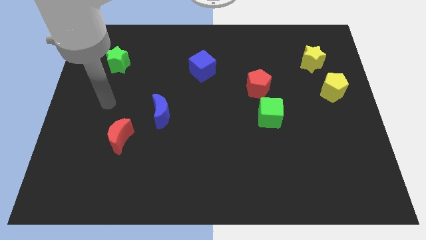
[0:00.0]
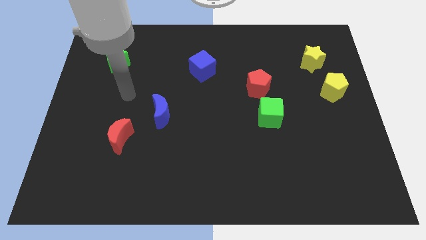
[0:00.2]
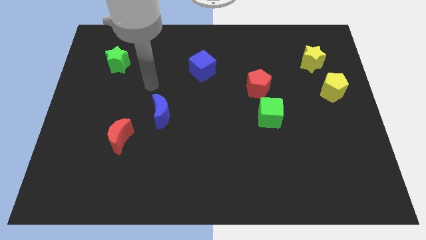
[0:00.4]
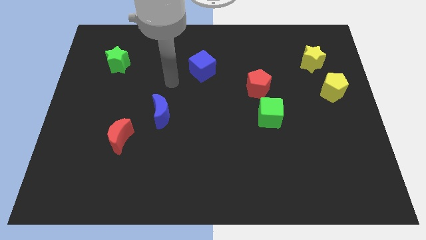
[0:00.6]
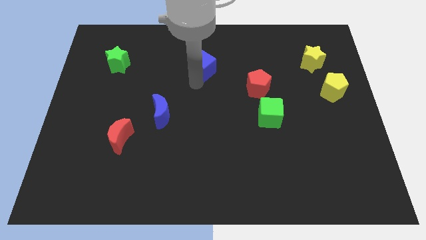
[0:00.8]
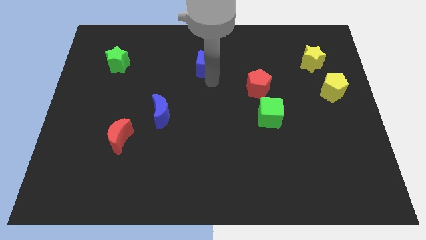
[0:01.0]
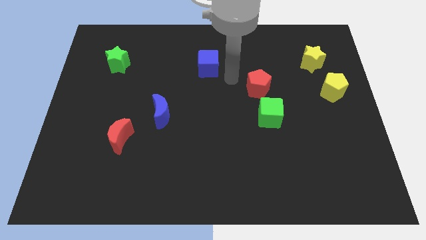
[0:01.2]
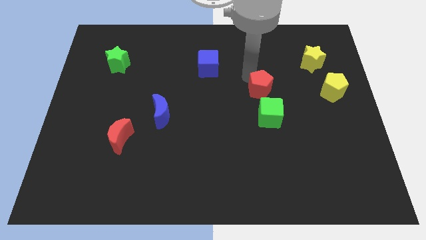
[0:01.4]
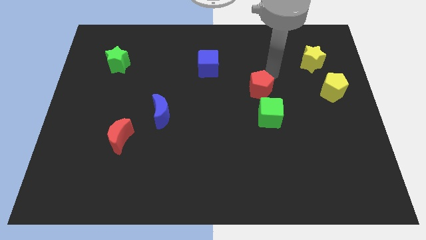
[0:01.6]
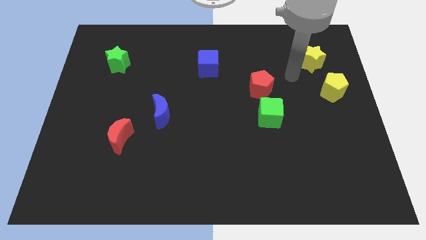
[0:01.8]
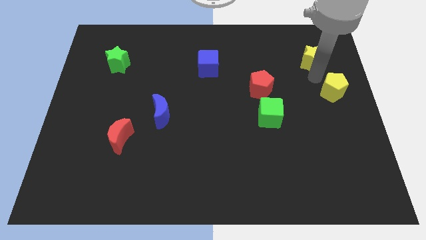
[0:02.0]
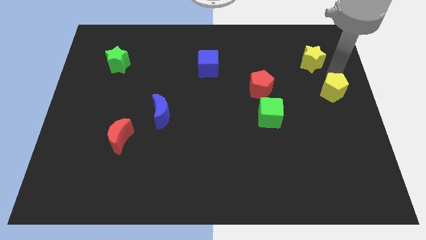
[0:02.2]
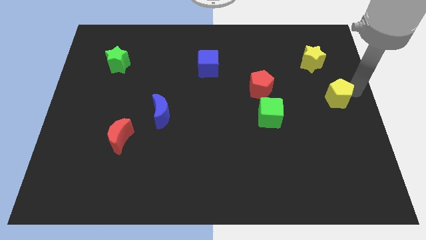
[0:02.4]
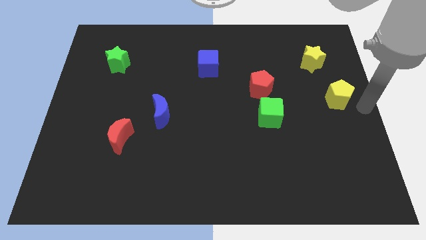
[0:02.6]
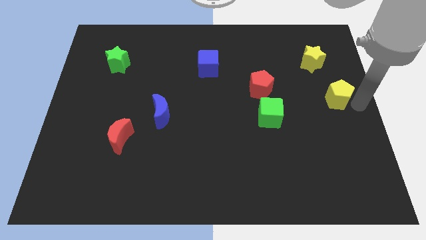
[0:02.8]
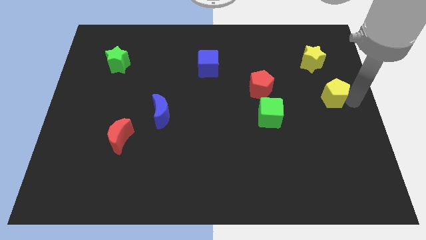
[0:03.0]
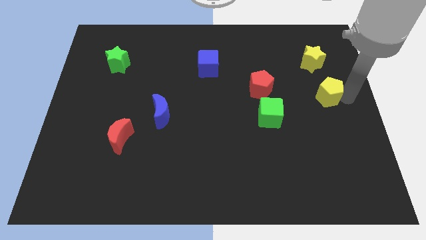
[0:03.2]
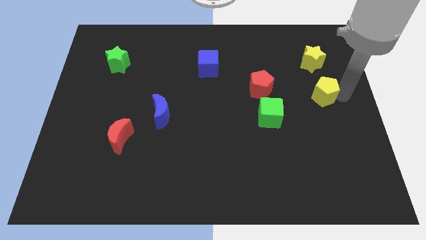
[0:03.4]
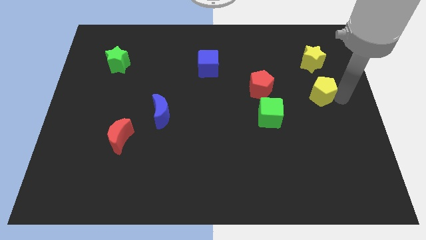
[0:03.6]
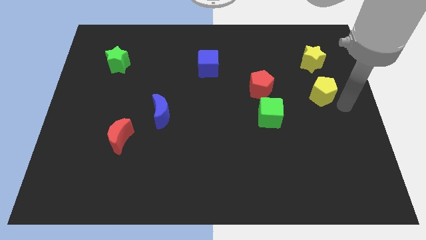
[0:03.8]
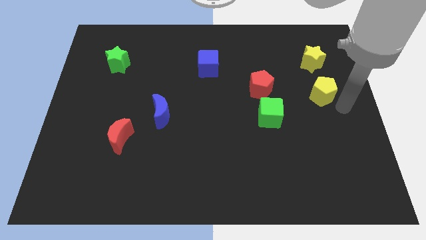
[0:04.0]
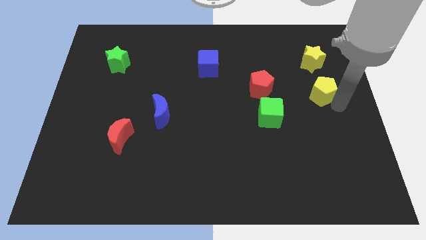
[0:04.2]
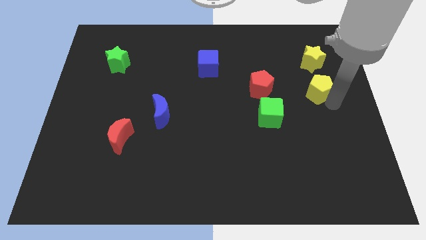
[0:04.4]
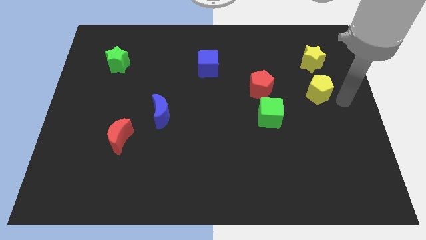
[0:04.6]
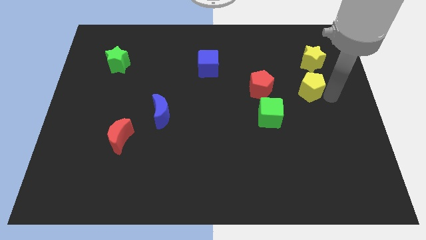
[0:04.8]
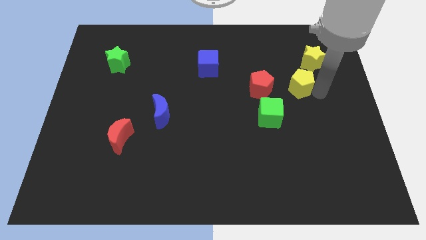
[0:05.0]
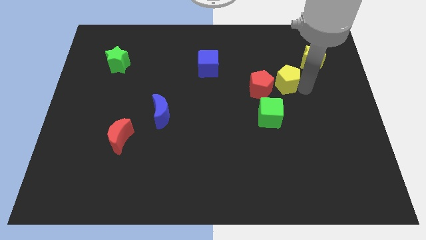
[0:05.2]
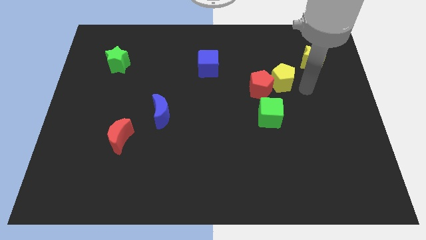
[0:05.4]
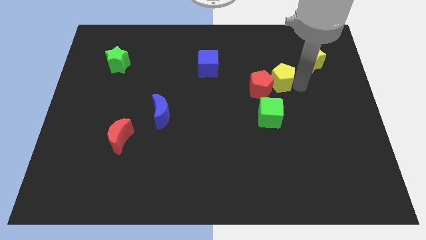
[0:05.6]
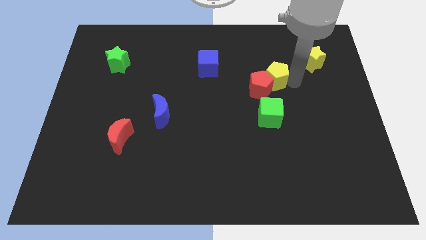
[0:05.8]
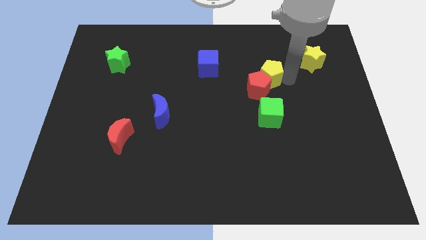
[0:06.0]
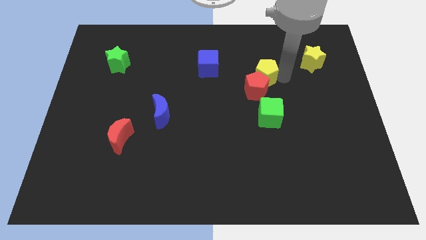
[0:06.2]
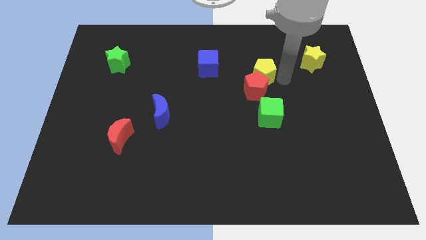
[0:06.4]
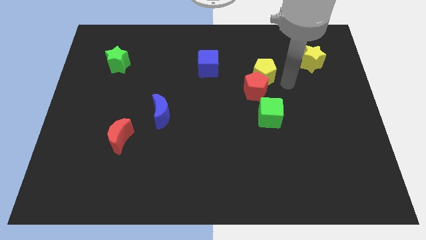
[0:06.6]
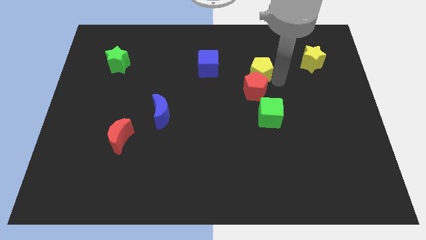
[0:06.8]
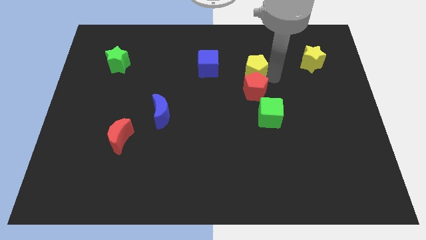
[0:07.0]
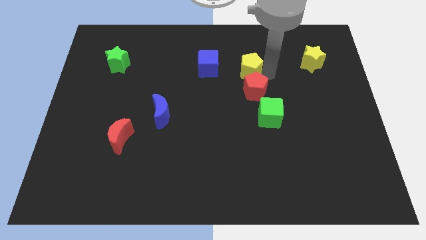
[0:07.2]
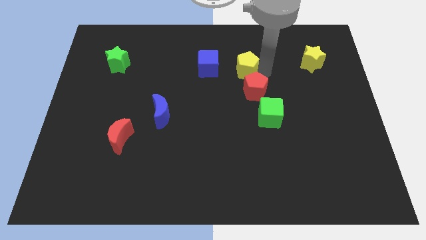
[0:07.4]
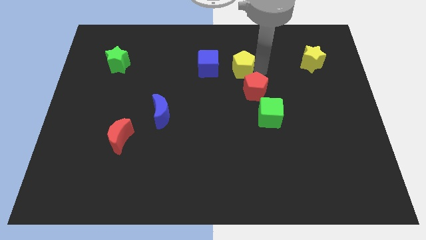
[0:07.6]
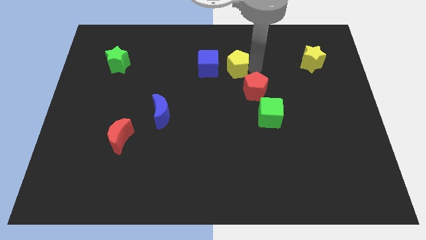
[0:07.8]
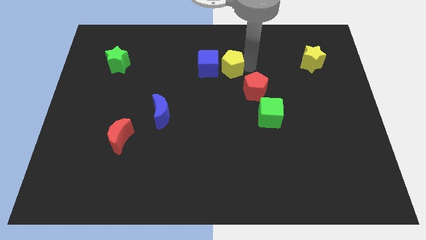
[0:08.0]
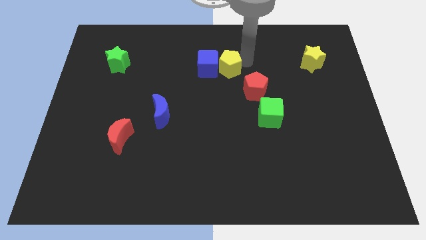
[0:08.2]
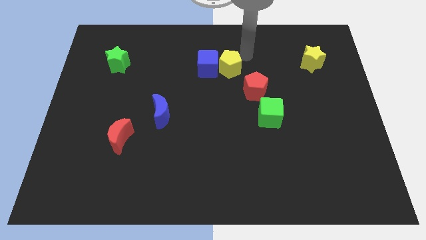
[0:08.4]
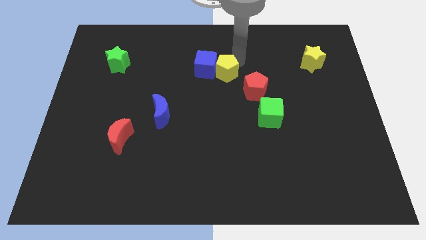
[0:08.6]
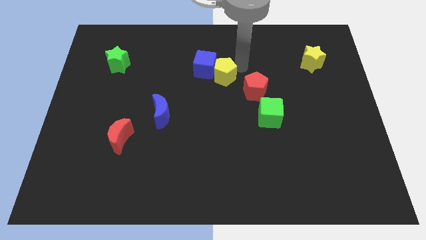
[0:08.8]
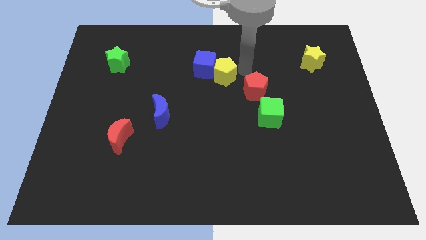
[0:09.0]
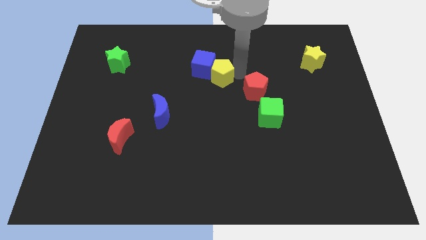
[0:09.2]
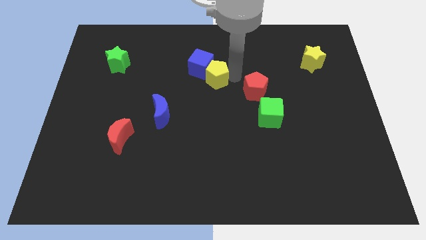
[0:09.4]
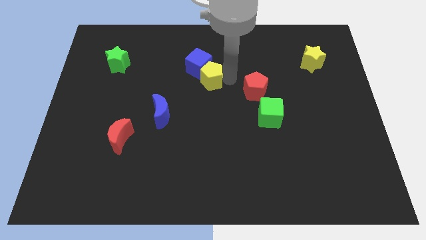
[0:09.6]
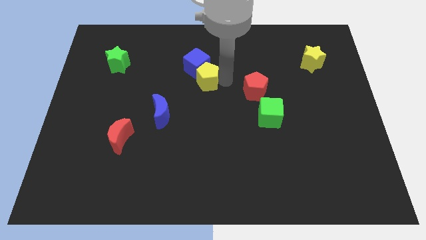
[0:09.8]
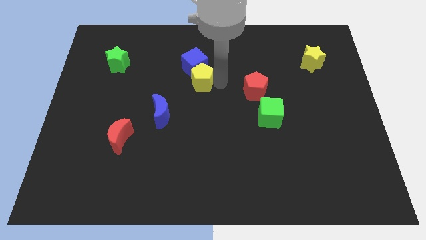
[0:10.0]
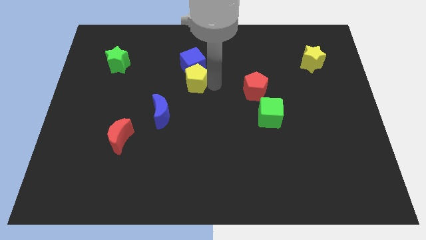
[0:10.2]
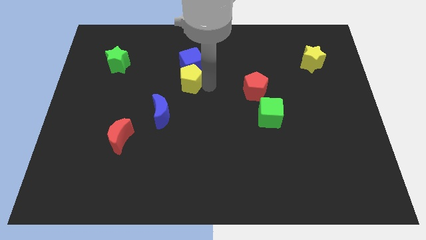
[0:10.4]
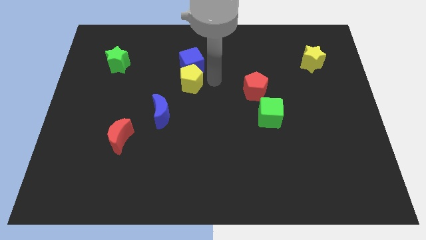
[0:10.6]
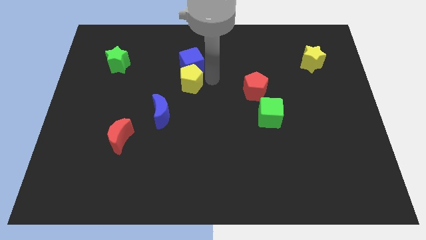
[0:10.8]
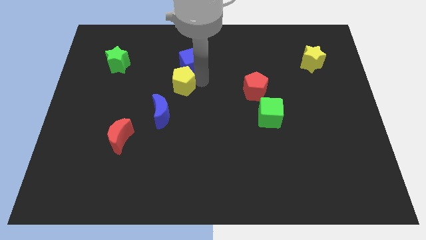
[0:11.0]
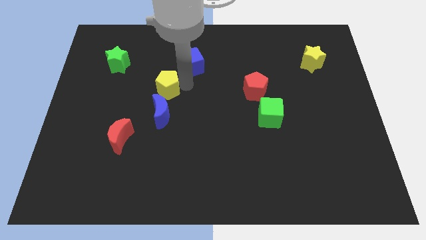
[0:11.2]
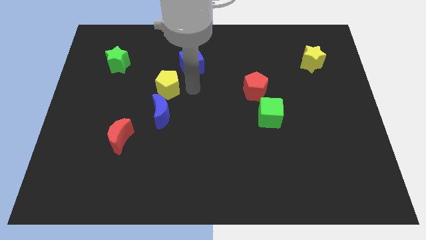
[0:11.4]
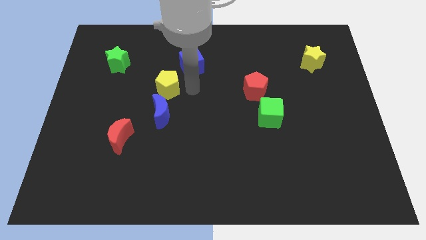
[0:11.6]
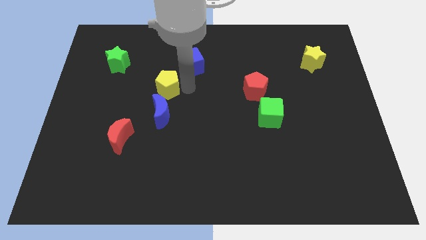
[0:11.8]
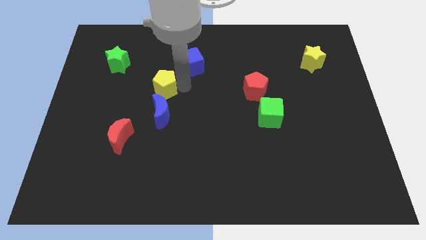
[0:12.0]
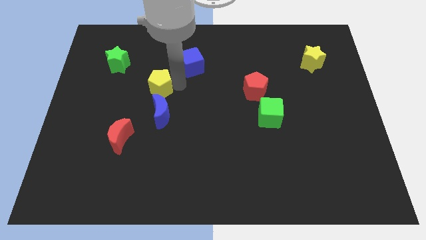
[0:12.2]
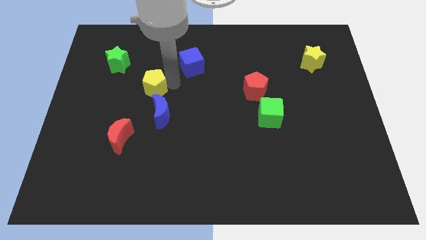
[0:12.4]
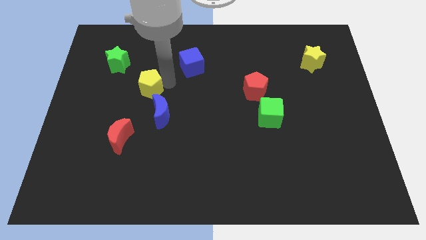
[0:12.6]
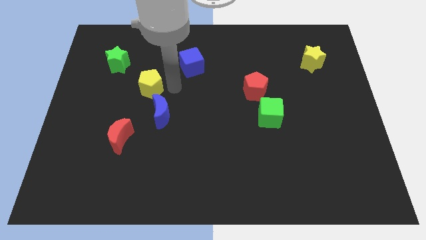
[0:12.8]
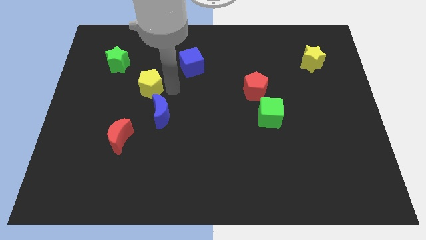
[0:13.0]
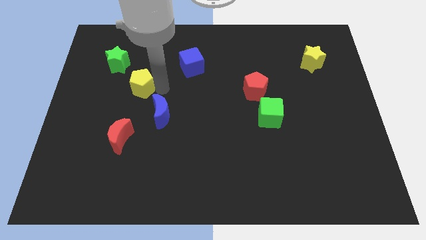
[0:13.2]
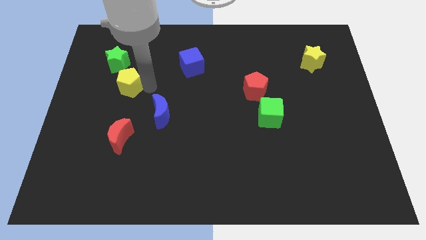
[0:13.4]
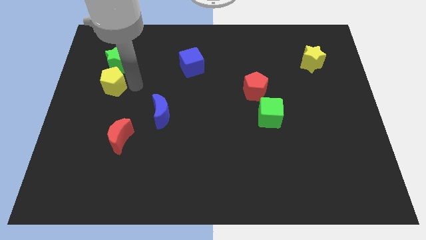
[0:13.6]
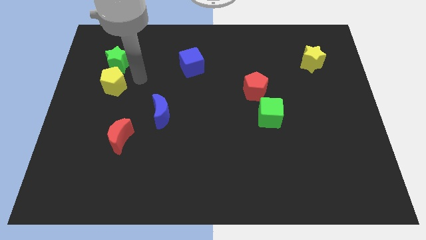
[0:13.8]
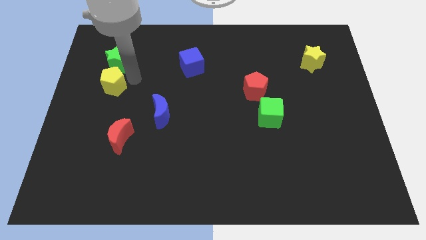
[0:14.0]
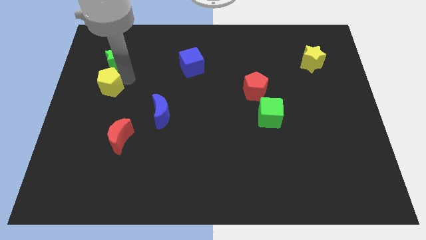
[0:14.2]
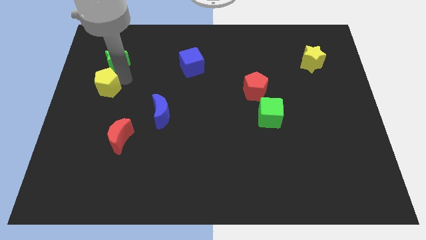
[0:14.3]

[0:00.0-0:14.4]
slide the yellow pentagon to the left side
